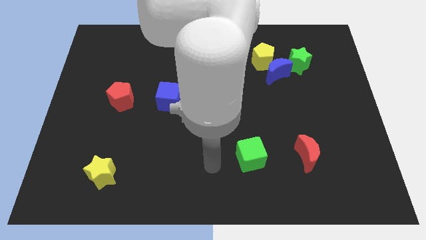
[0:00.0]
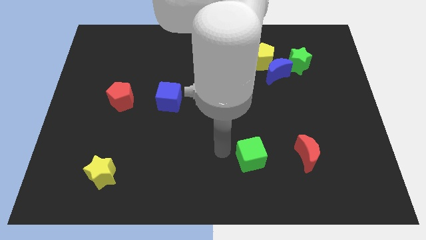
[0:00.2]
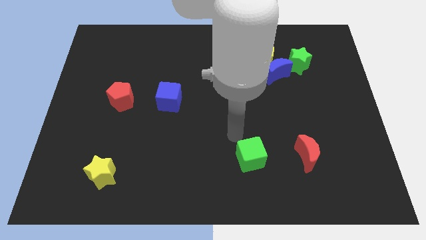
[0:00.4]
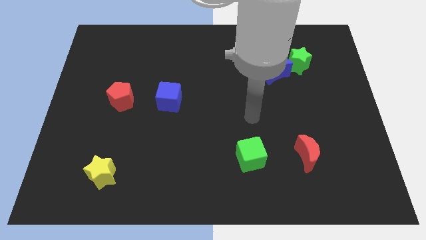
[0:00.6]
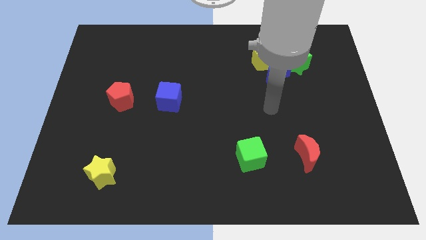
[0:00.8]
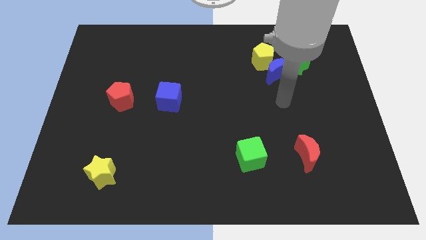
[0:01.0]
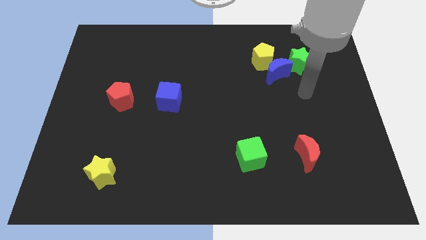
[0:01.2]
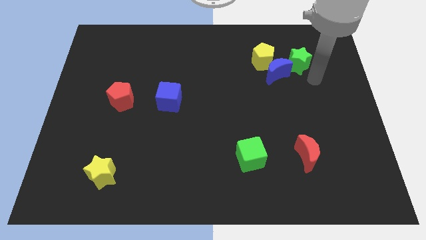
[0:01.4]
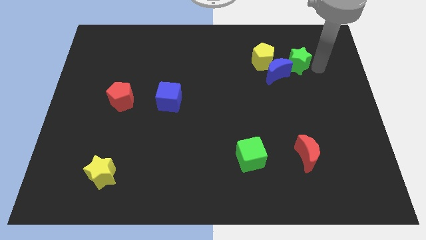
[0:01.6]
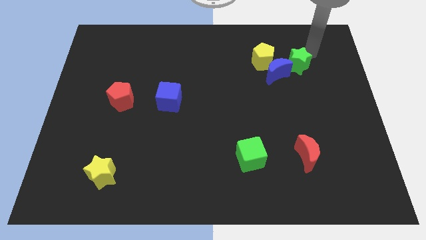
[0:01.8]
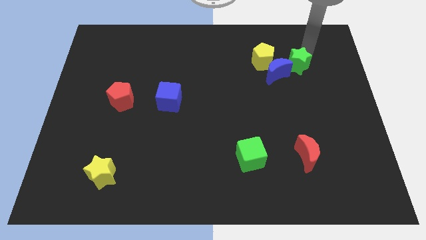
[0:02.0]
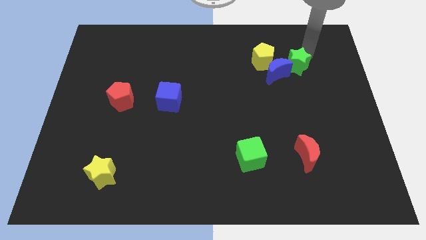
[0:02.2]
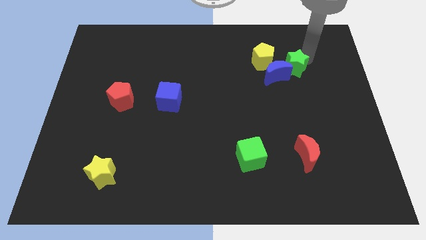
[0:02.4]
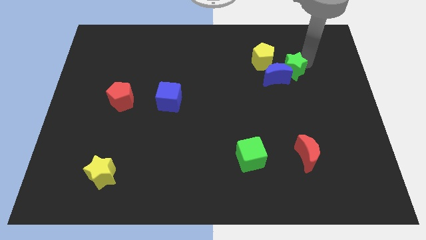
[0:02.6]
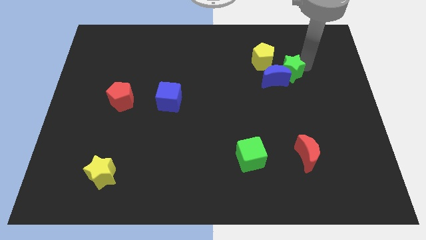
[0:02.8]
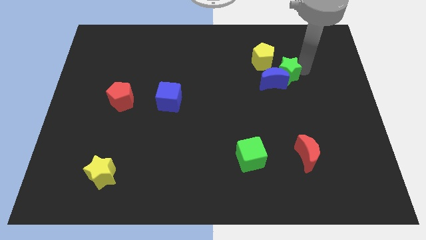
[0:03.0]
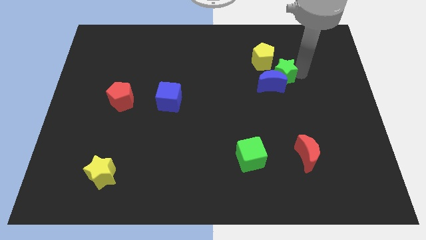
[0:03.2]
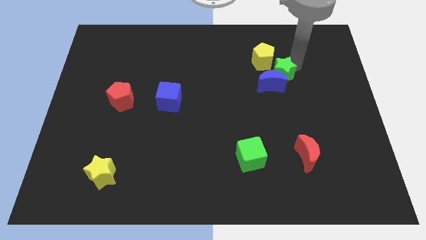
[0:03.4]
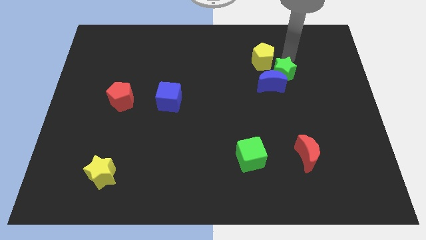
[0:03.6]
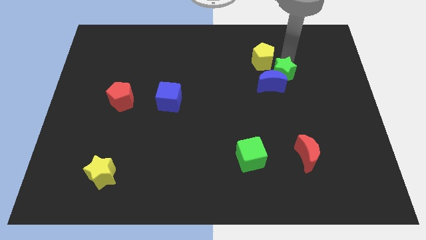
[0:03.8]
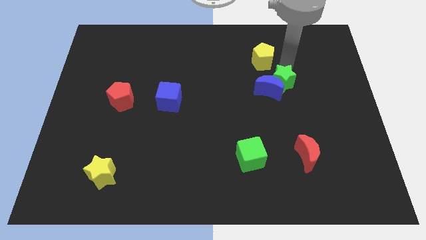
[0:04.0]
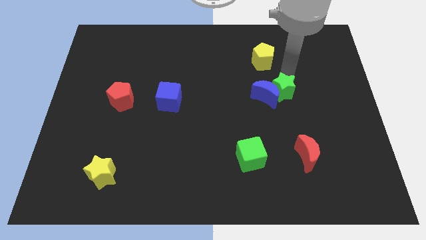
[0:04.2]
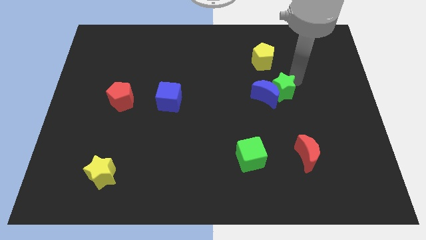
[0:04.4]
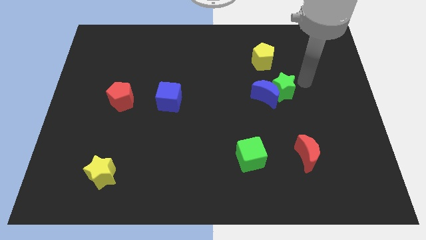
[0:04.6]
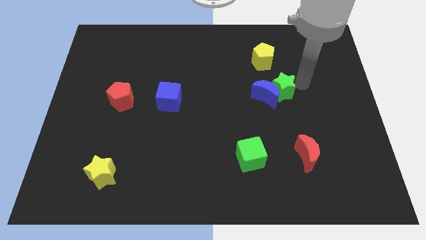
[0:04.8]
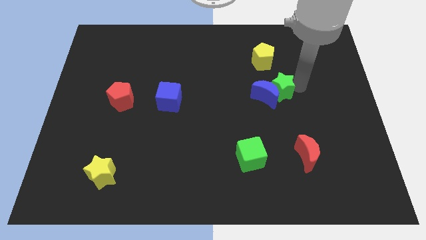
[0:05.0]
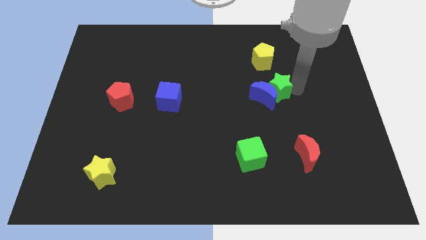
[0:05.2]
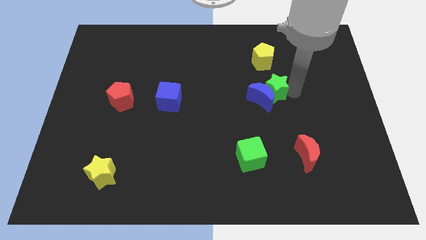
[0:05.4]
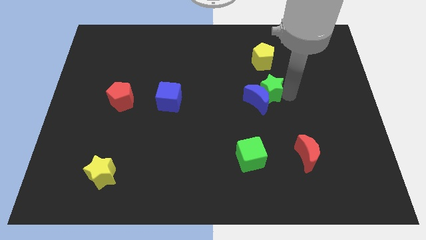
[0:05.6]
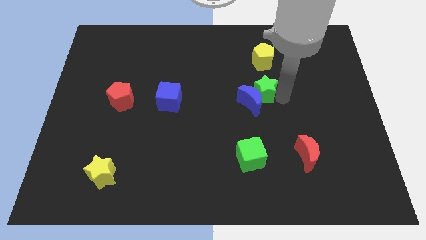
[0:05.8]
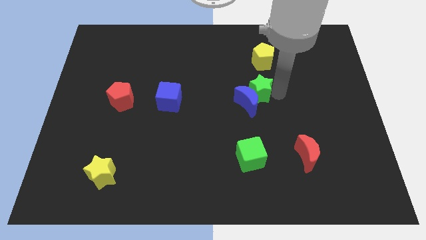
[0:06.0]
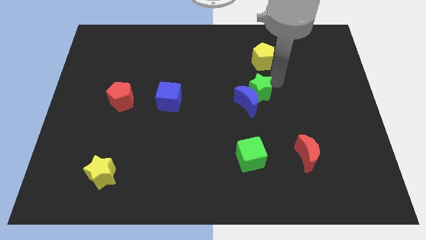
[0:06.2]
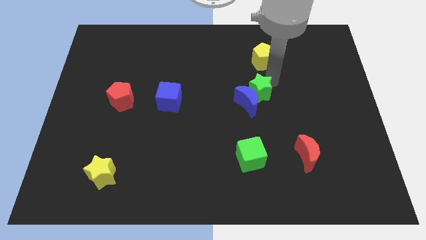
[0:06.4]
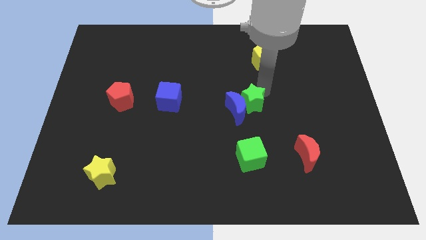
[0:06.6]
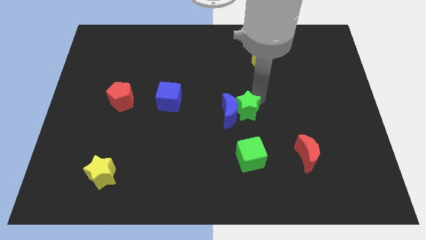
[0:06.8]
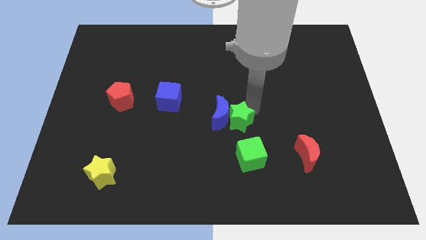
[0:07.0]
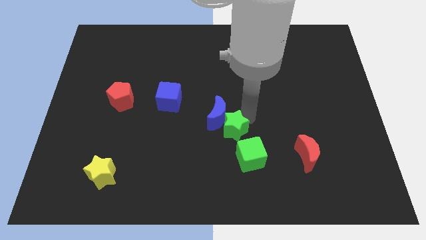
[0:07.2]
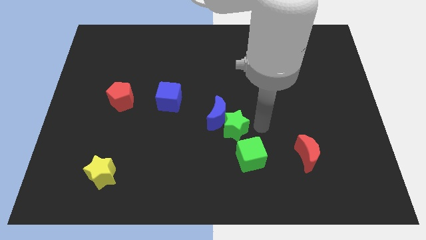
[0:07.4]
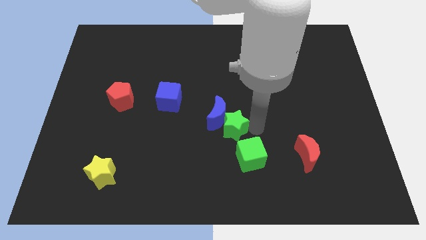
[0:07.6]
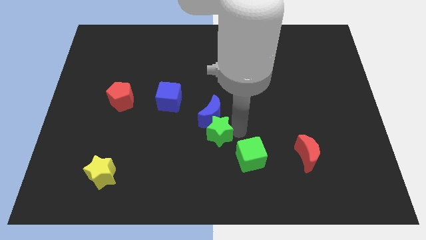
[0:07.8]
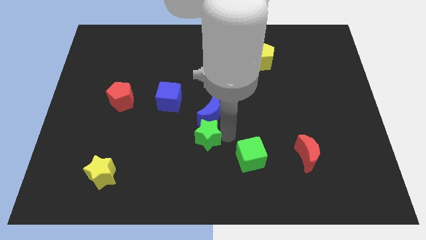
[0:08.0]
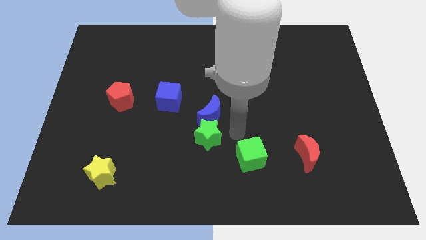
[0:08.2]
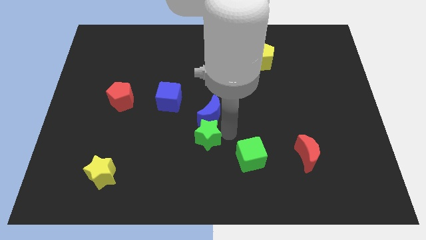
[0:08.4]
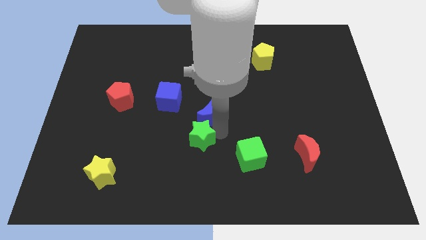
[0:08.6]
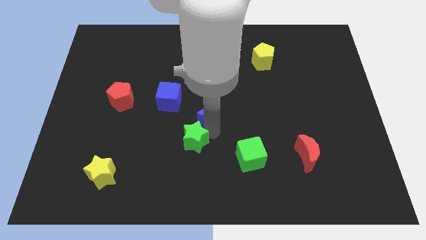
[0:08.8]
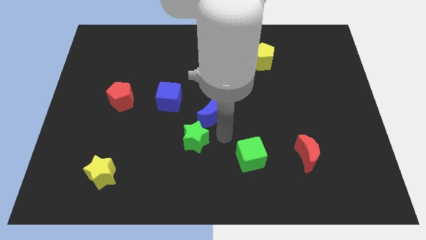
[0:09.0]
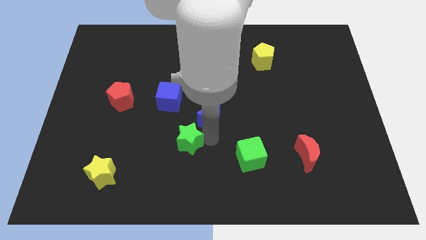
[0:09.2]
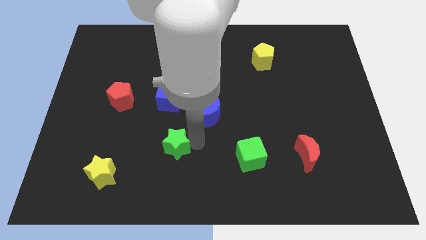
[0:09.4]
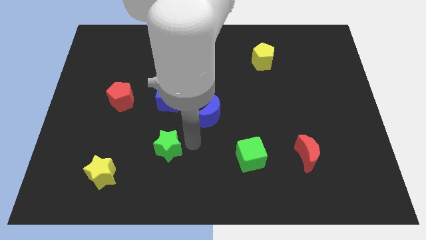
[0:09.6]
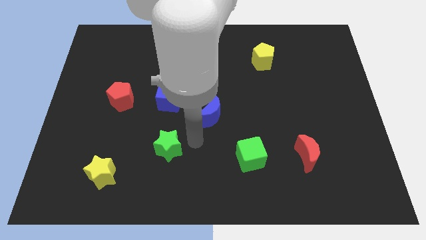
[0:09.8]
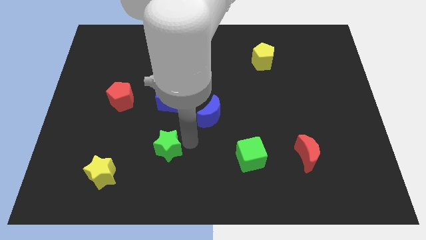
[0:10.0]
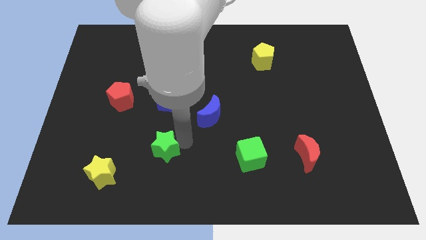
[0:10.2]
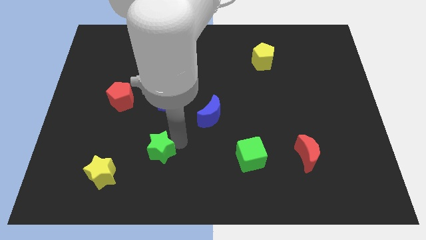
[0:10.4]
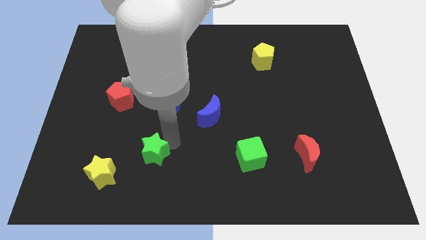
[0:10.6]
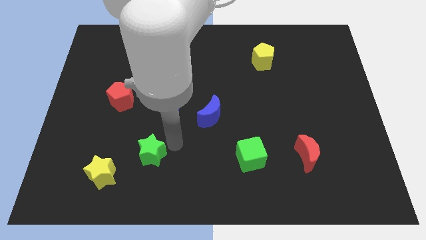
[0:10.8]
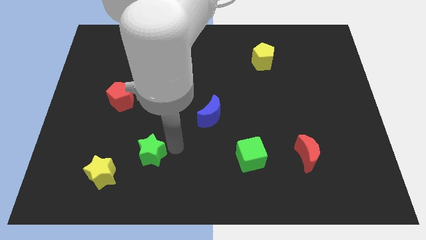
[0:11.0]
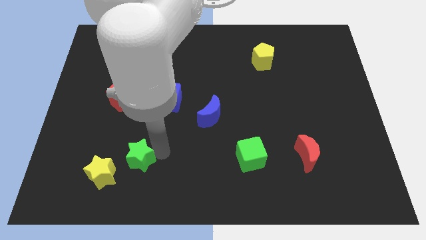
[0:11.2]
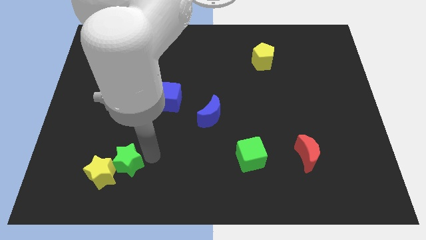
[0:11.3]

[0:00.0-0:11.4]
push the green star next to the yellow star

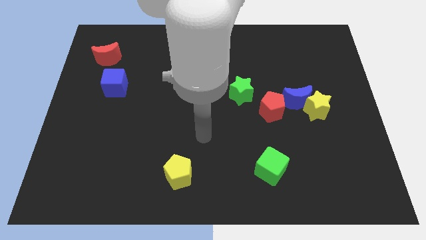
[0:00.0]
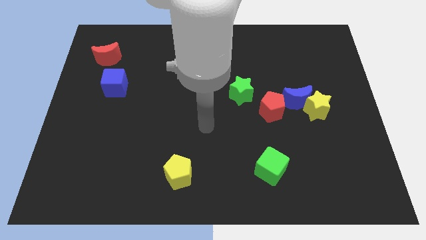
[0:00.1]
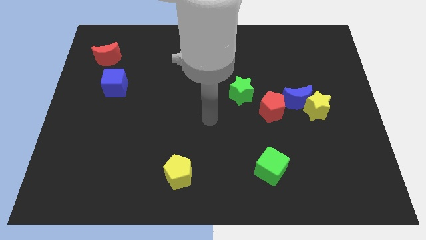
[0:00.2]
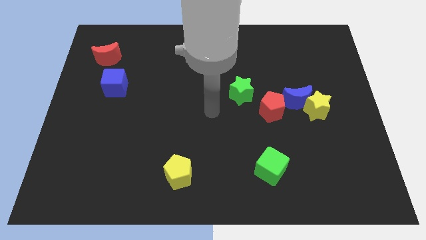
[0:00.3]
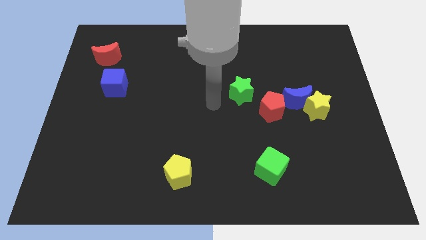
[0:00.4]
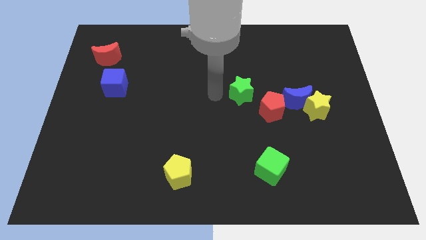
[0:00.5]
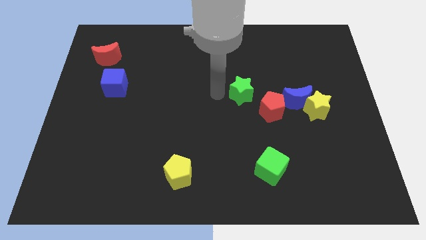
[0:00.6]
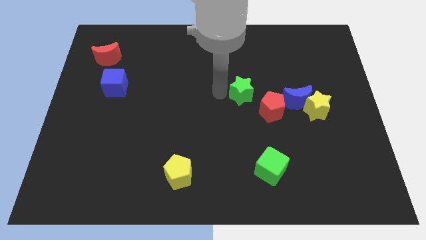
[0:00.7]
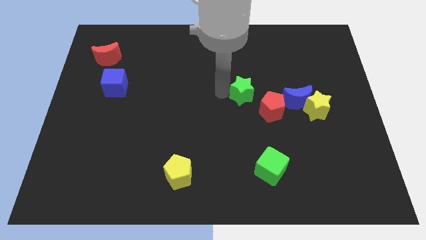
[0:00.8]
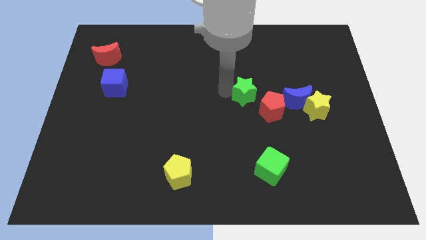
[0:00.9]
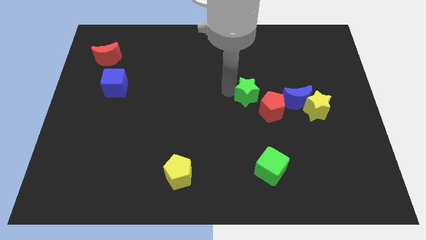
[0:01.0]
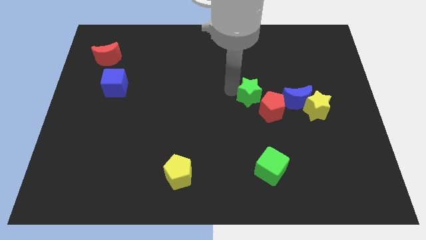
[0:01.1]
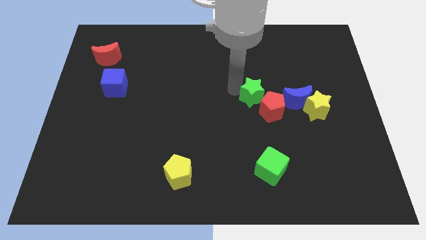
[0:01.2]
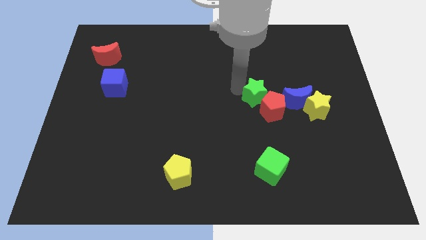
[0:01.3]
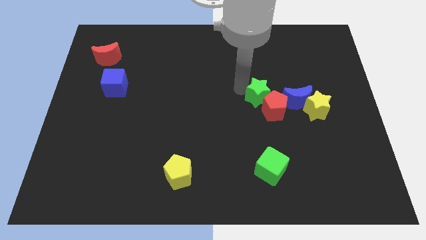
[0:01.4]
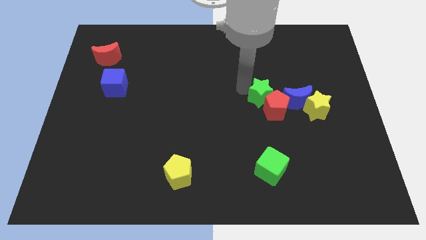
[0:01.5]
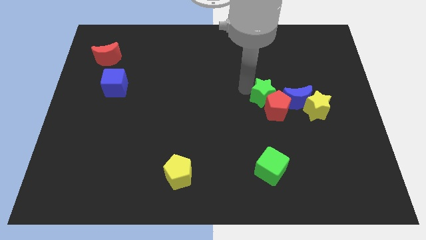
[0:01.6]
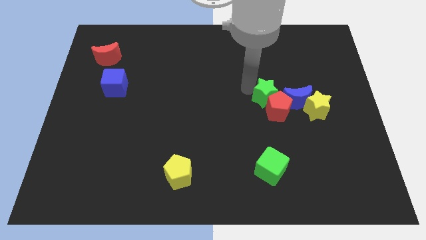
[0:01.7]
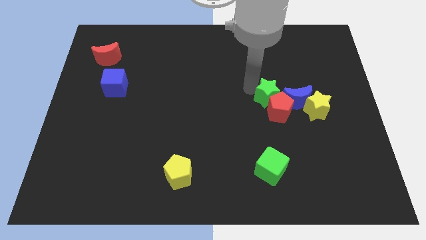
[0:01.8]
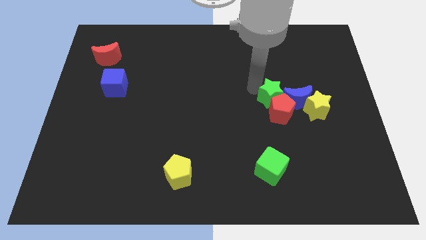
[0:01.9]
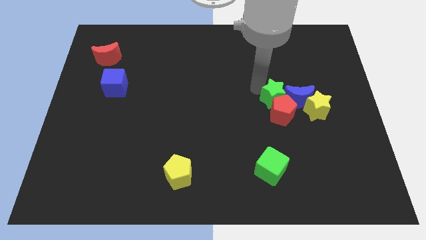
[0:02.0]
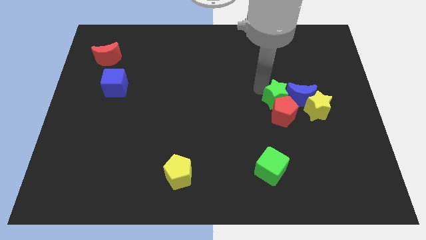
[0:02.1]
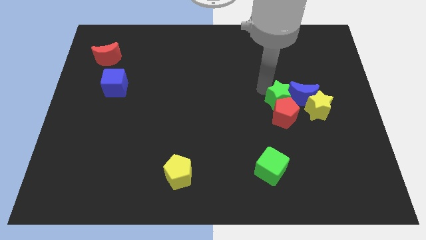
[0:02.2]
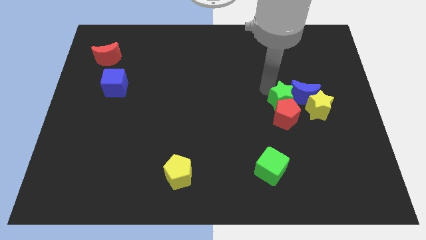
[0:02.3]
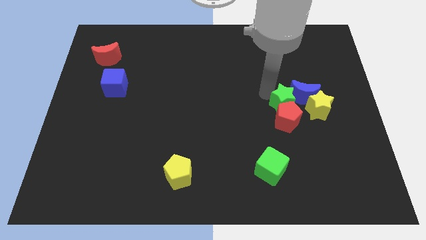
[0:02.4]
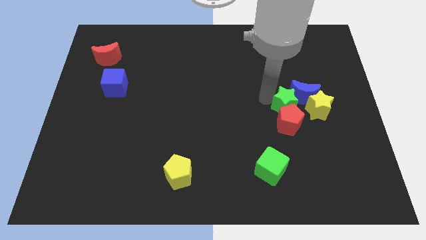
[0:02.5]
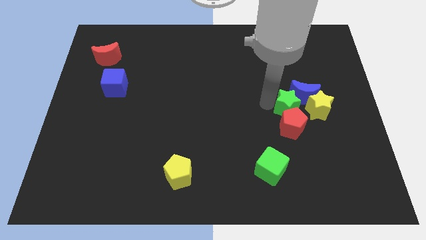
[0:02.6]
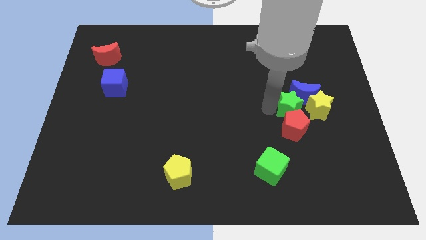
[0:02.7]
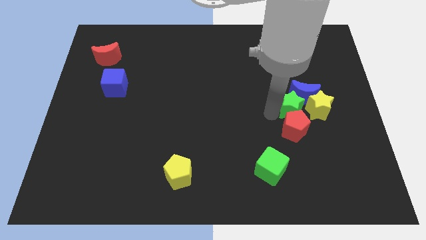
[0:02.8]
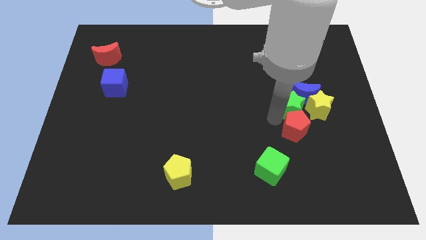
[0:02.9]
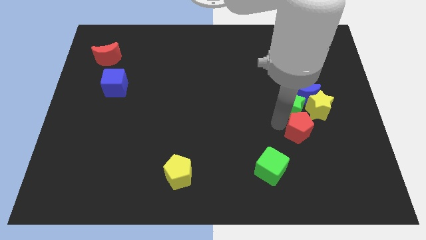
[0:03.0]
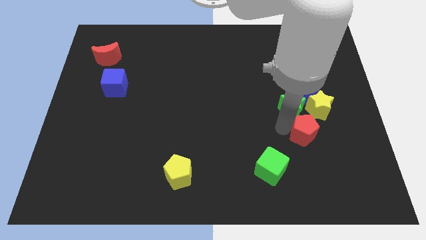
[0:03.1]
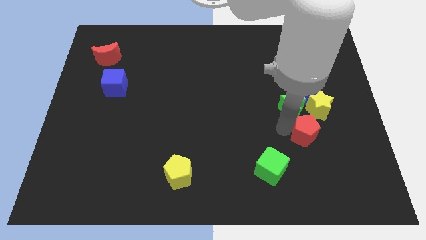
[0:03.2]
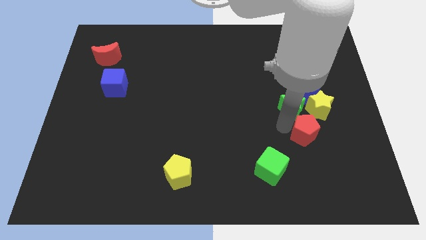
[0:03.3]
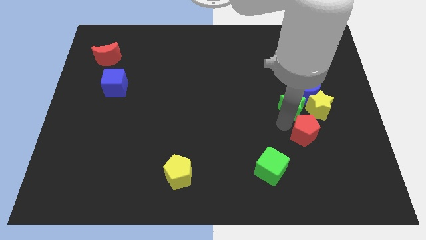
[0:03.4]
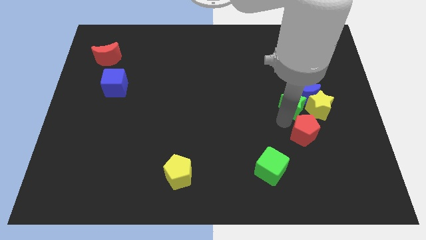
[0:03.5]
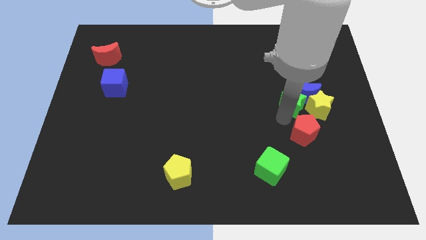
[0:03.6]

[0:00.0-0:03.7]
move the green star close to the yellow star
